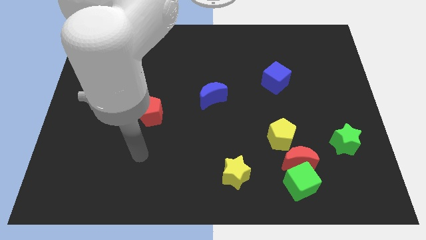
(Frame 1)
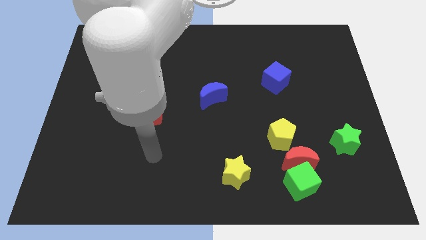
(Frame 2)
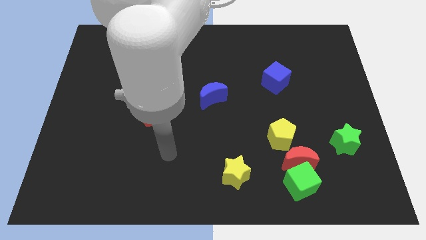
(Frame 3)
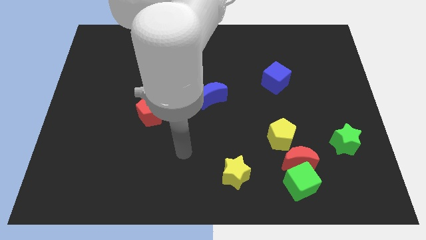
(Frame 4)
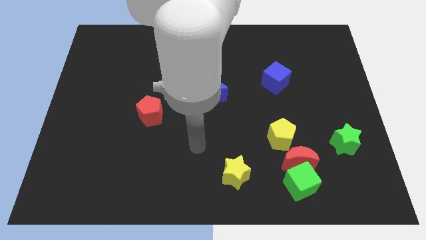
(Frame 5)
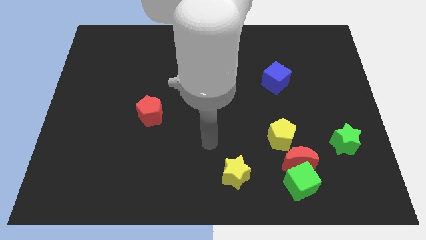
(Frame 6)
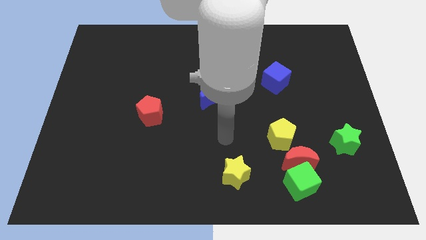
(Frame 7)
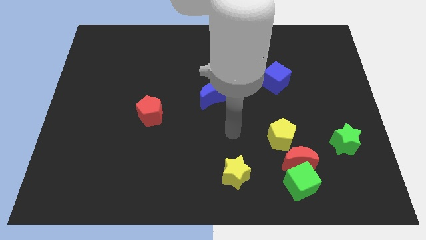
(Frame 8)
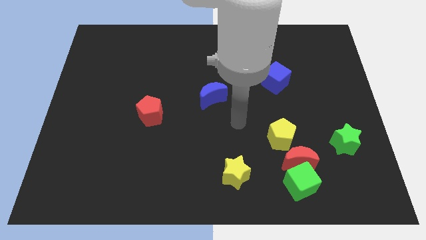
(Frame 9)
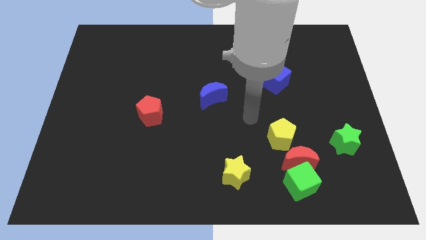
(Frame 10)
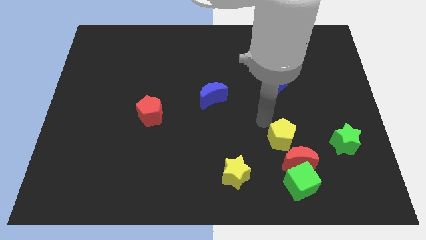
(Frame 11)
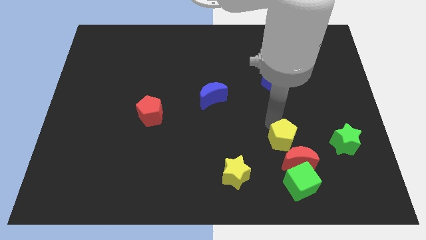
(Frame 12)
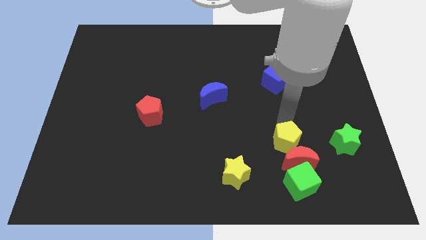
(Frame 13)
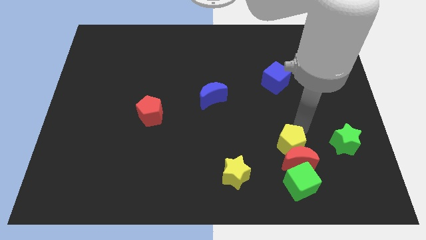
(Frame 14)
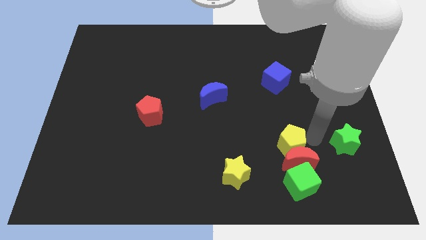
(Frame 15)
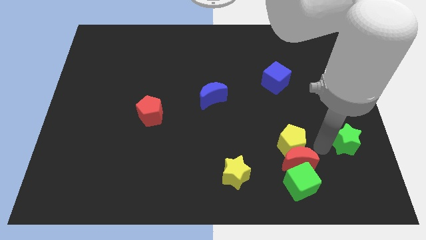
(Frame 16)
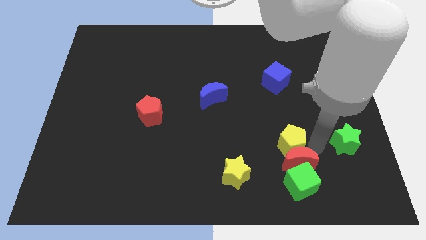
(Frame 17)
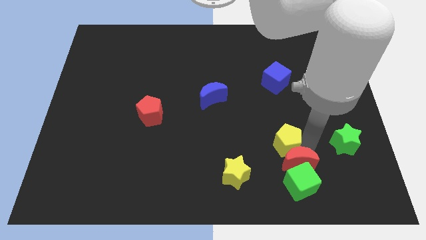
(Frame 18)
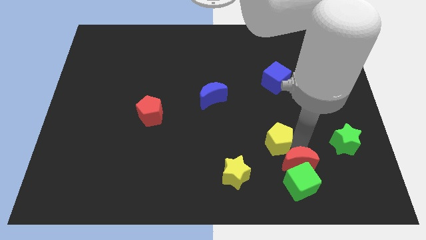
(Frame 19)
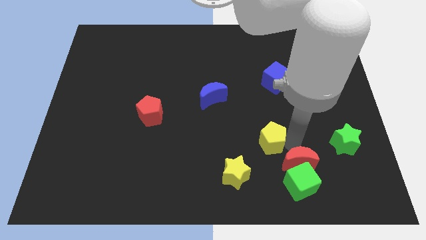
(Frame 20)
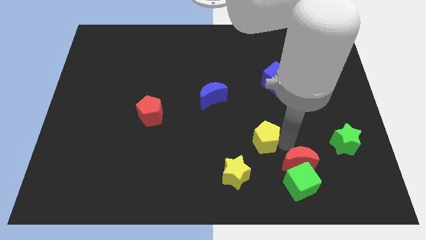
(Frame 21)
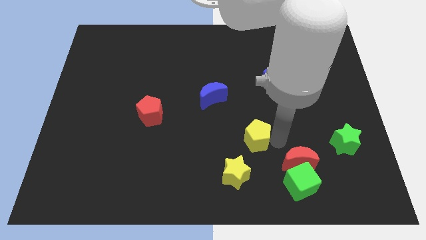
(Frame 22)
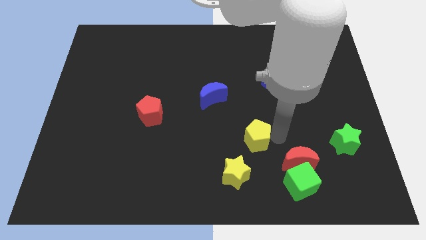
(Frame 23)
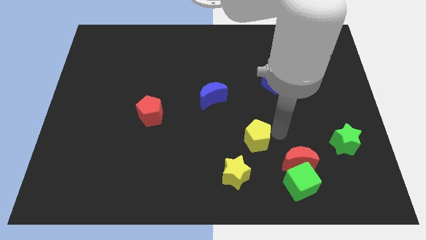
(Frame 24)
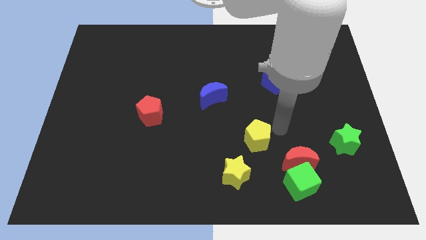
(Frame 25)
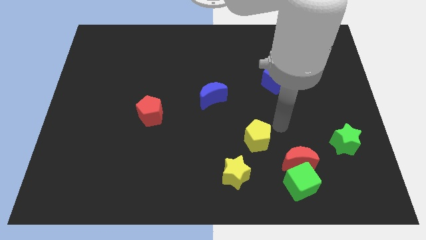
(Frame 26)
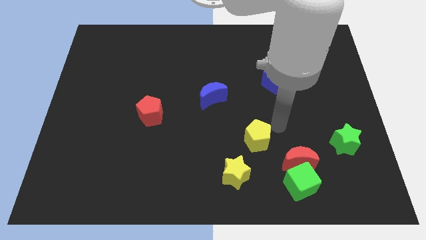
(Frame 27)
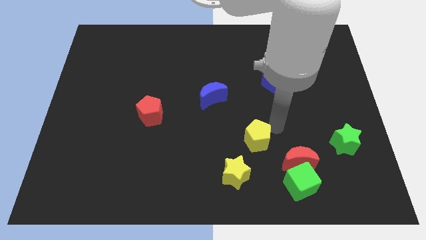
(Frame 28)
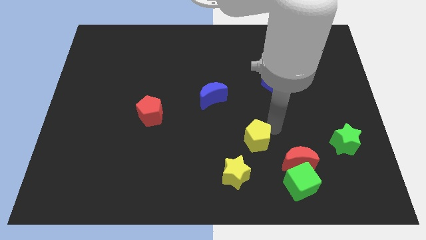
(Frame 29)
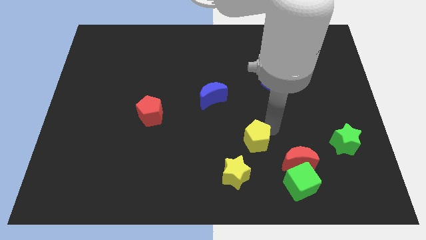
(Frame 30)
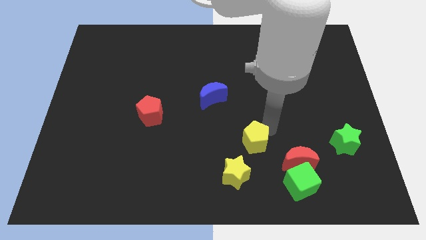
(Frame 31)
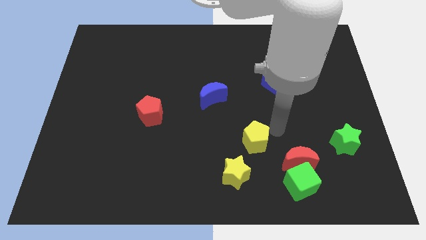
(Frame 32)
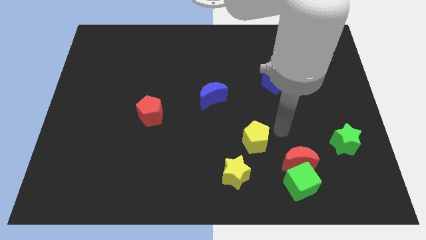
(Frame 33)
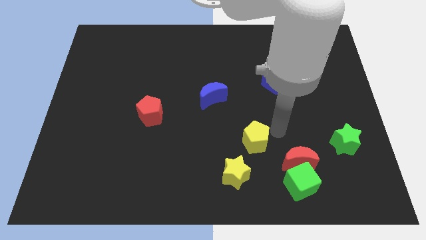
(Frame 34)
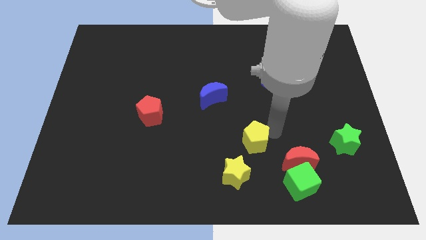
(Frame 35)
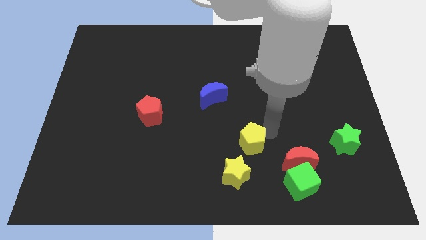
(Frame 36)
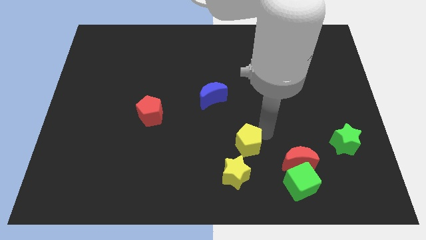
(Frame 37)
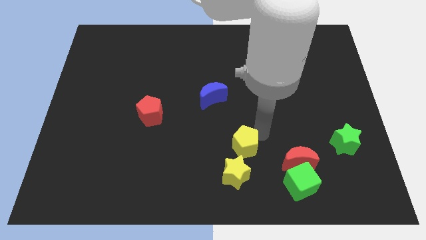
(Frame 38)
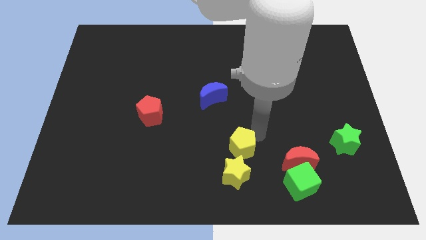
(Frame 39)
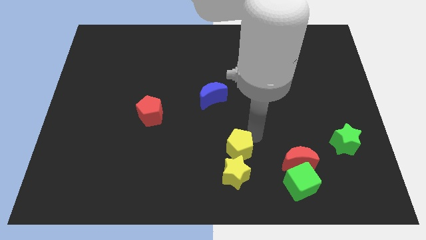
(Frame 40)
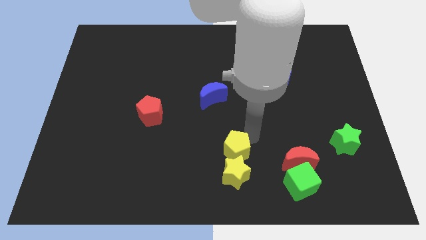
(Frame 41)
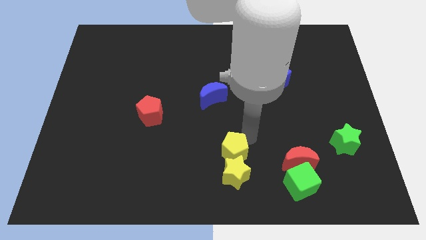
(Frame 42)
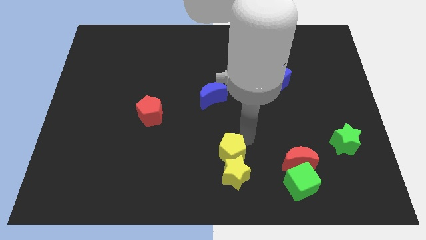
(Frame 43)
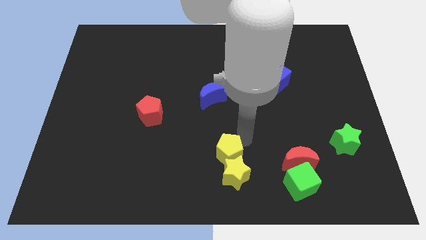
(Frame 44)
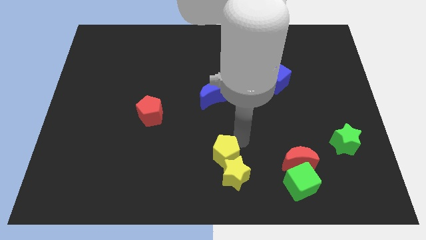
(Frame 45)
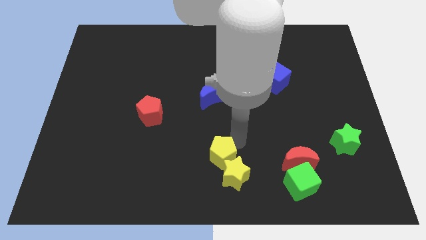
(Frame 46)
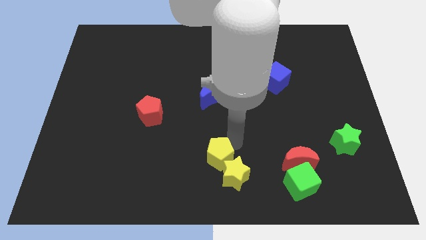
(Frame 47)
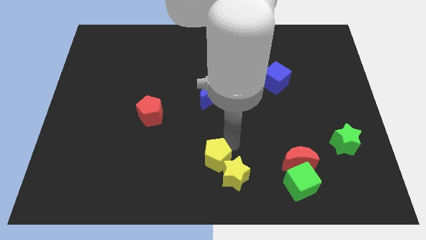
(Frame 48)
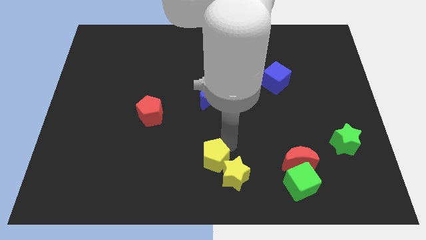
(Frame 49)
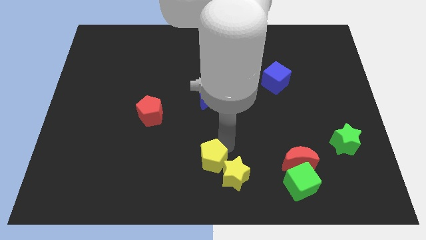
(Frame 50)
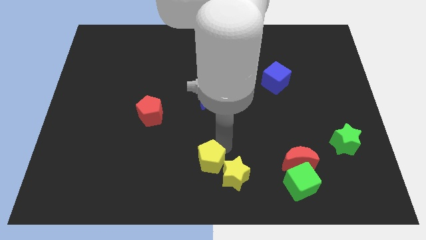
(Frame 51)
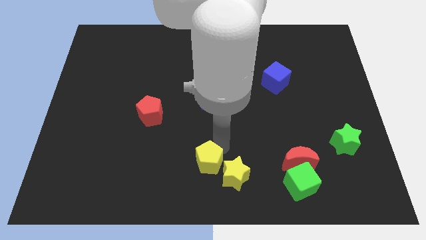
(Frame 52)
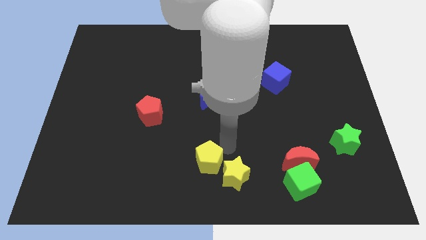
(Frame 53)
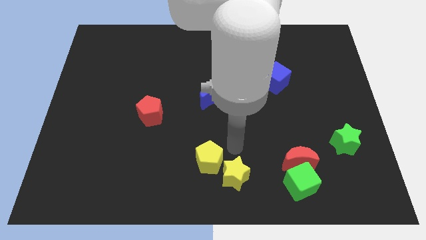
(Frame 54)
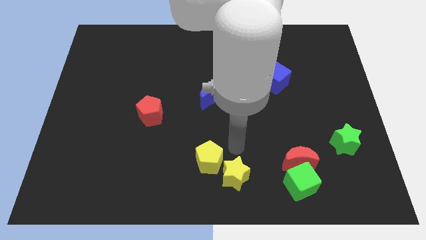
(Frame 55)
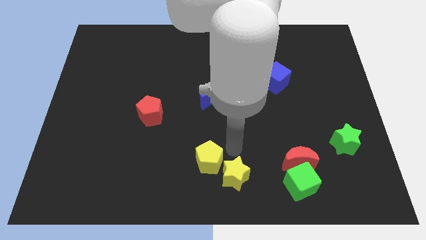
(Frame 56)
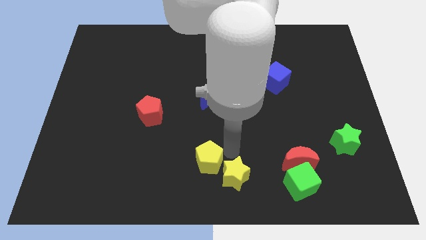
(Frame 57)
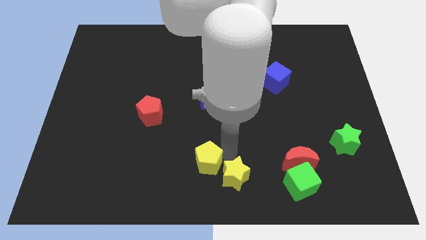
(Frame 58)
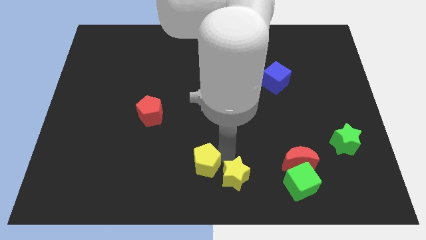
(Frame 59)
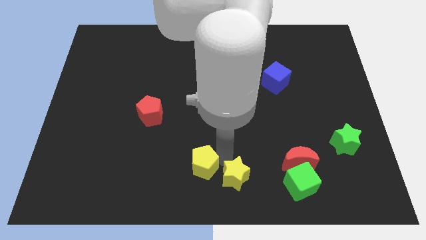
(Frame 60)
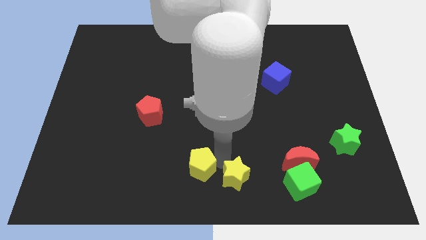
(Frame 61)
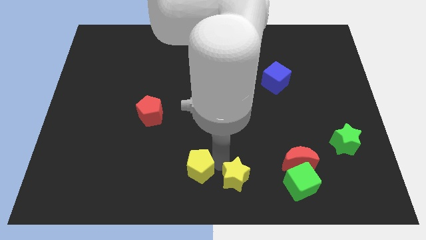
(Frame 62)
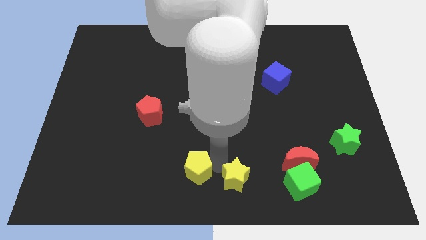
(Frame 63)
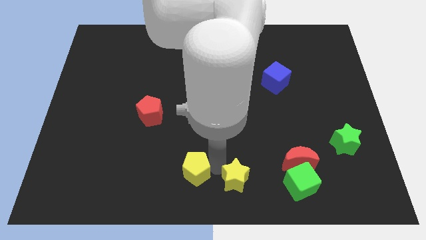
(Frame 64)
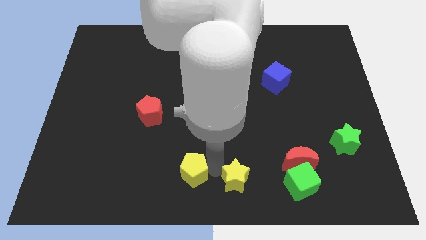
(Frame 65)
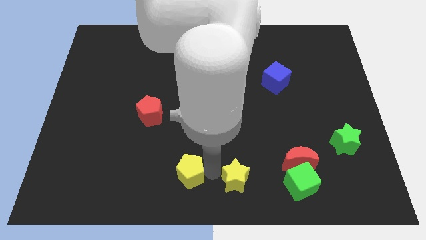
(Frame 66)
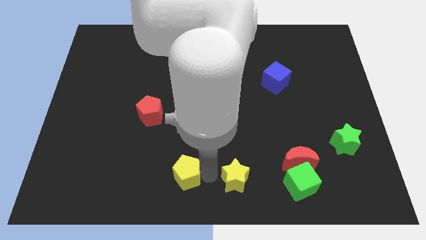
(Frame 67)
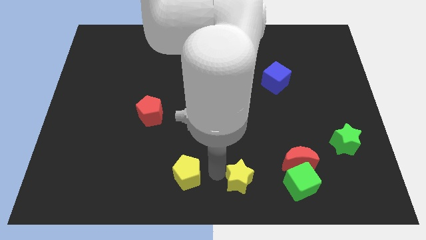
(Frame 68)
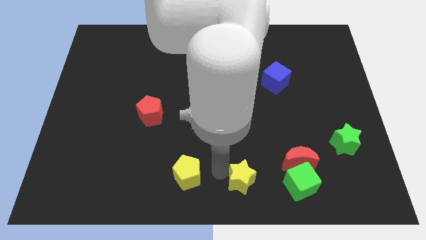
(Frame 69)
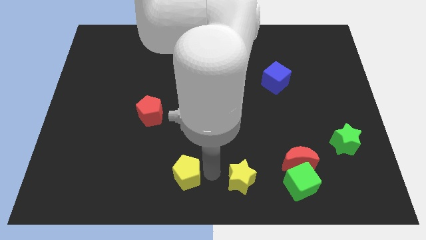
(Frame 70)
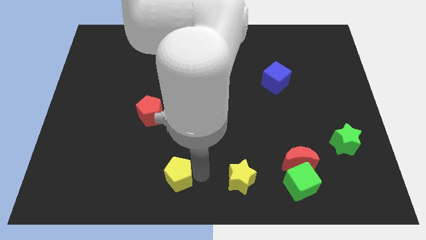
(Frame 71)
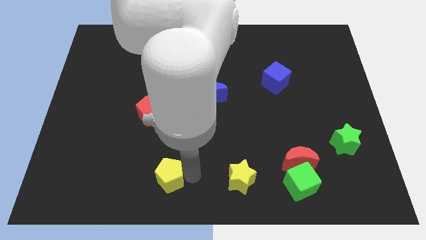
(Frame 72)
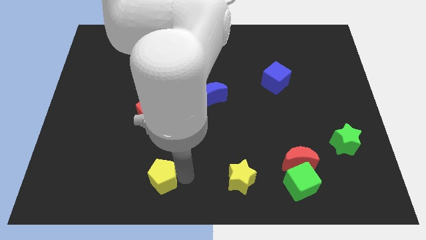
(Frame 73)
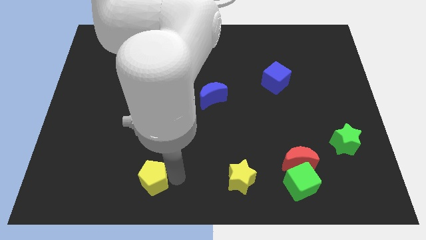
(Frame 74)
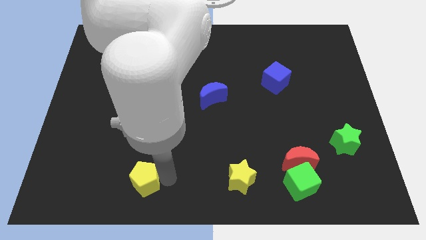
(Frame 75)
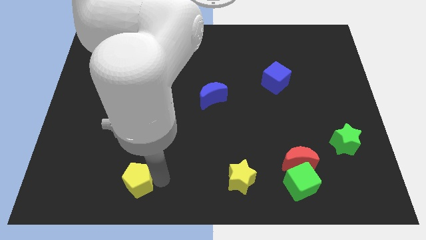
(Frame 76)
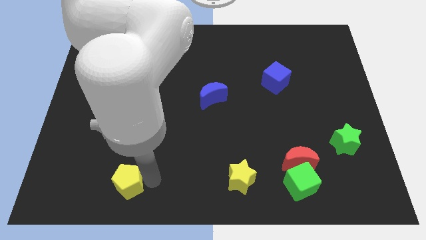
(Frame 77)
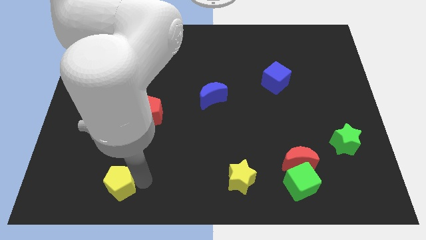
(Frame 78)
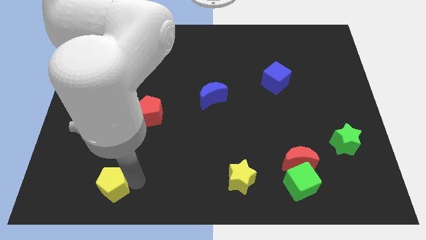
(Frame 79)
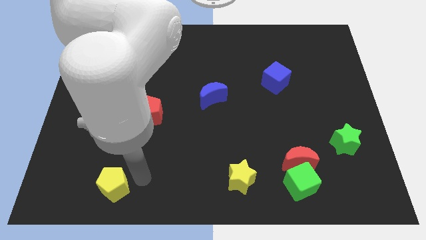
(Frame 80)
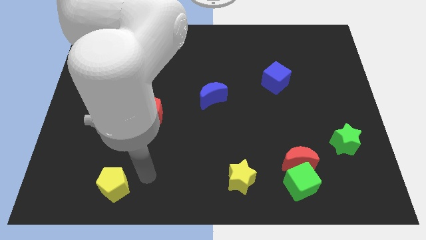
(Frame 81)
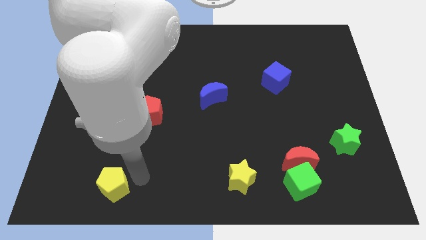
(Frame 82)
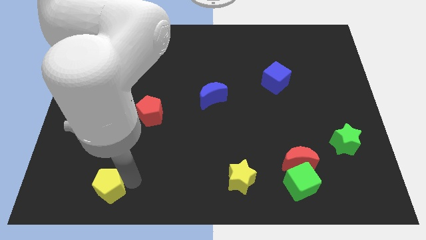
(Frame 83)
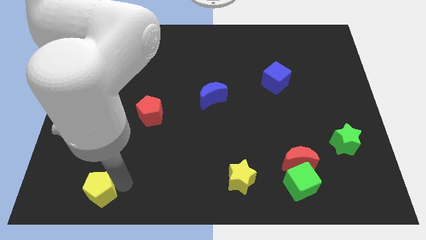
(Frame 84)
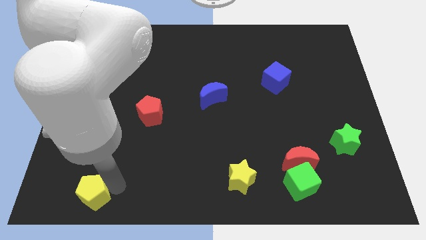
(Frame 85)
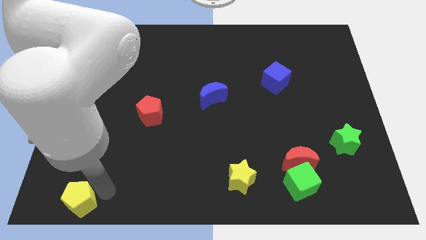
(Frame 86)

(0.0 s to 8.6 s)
move the yellow pentagon to the bottom left corner
